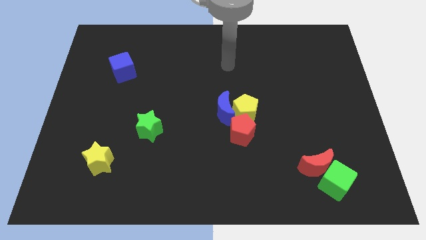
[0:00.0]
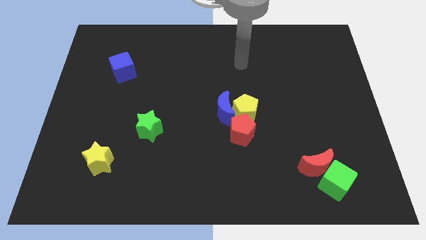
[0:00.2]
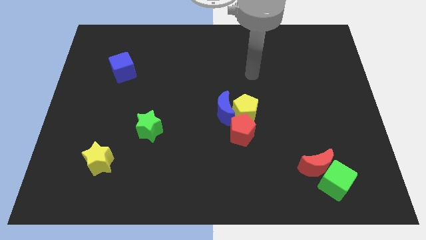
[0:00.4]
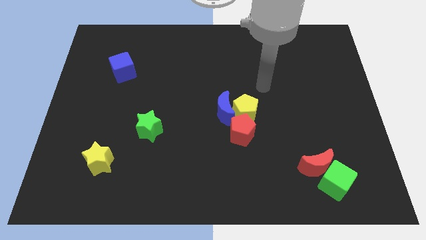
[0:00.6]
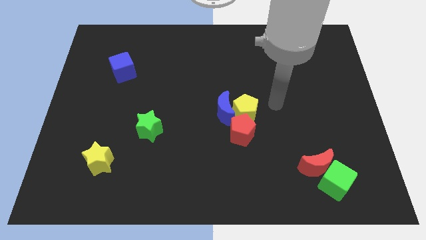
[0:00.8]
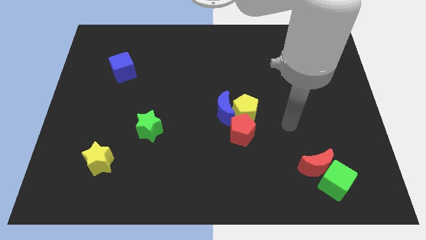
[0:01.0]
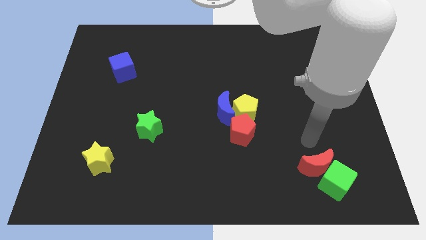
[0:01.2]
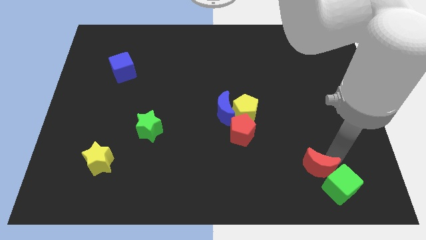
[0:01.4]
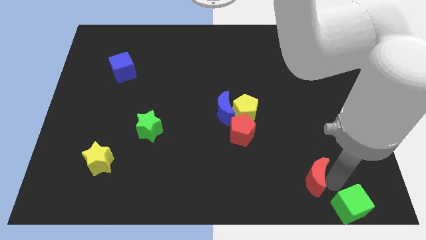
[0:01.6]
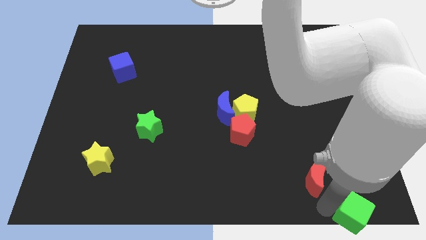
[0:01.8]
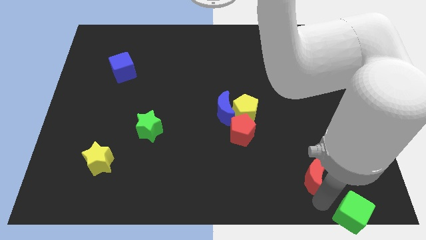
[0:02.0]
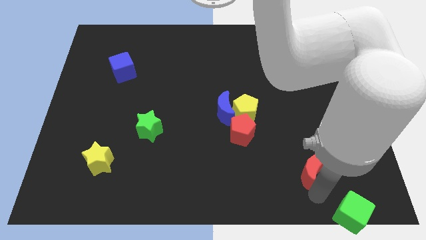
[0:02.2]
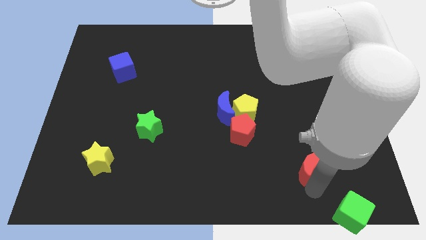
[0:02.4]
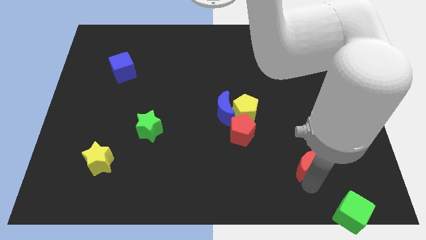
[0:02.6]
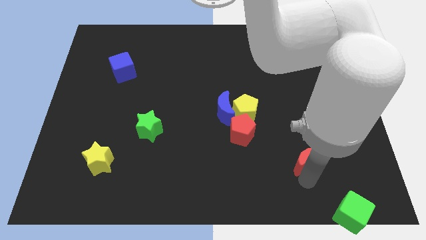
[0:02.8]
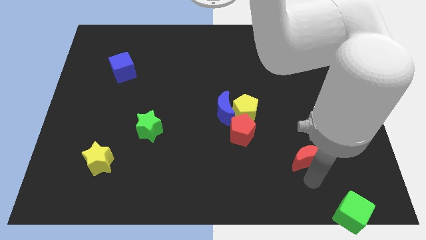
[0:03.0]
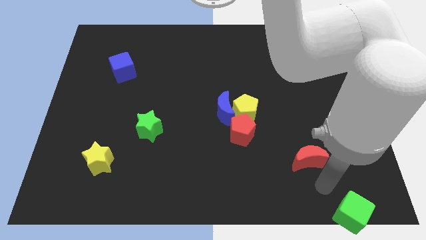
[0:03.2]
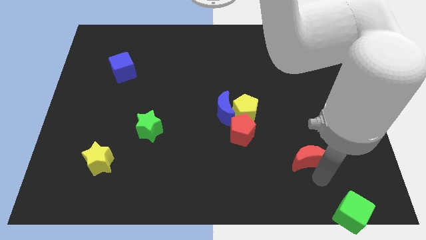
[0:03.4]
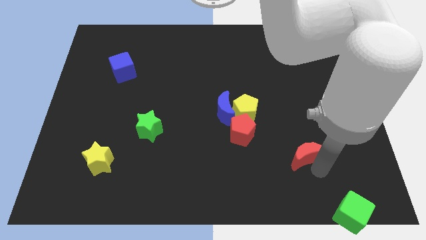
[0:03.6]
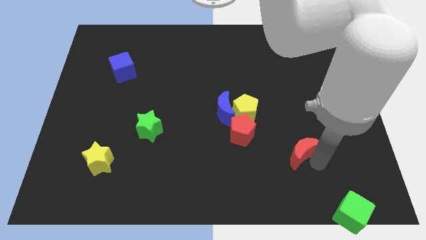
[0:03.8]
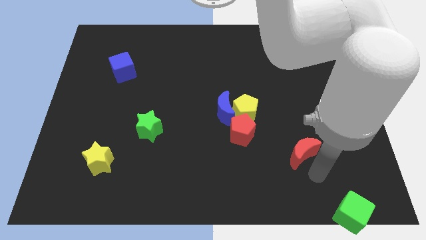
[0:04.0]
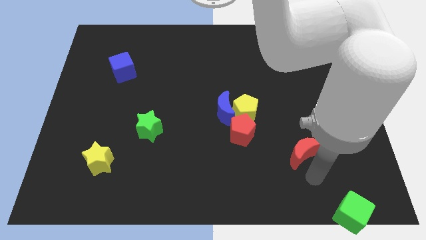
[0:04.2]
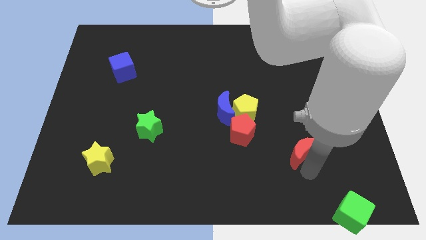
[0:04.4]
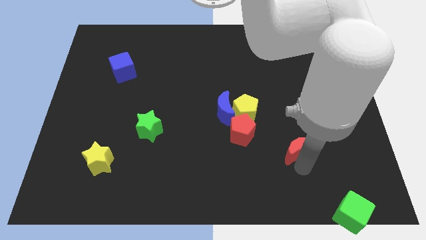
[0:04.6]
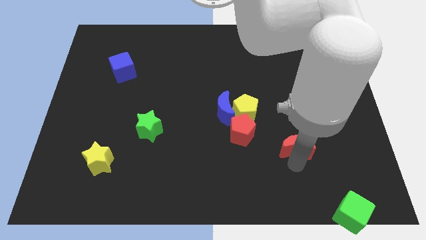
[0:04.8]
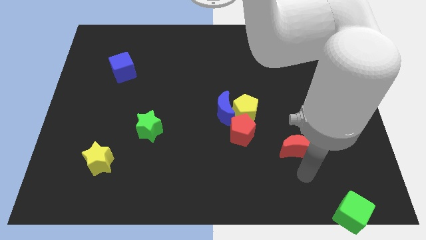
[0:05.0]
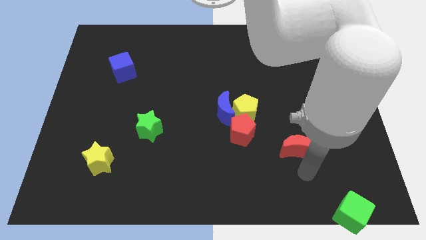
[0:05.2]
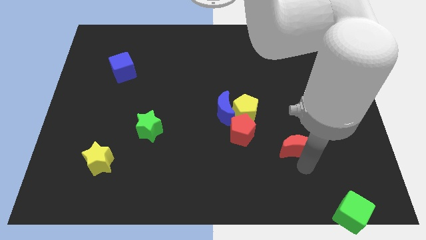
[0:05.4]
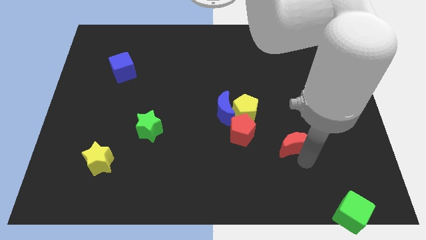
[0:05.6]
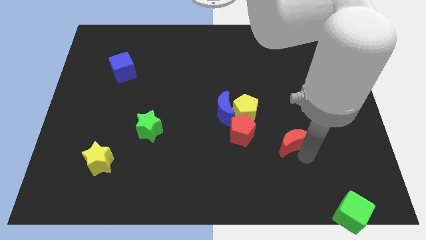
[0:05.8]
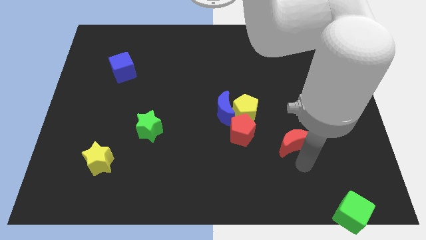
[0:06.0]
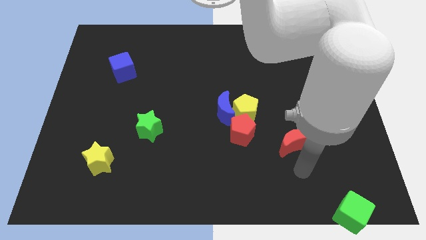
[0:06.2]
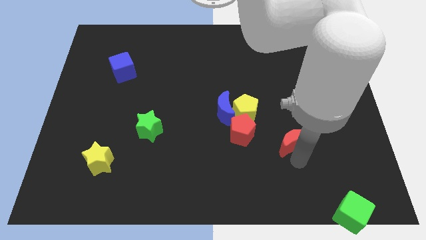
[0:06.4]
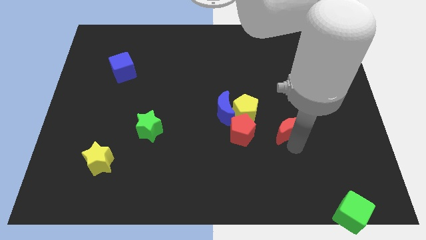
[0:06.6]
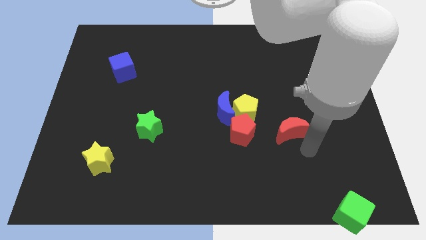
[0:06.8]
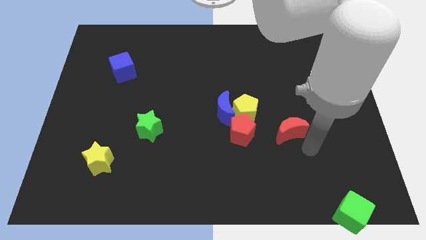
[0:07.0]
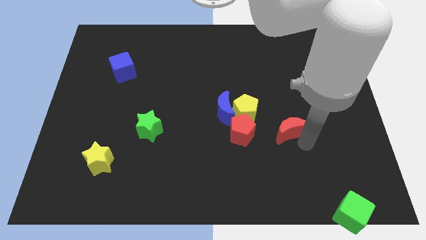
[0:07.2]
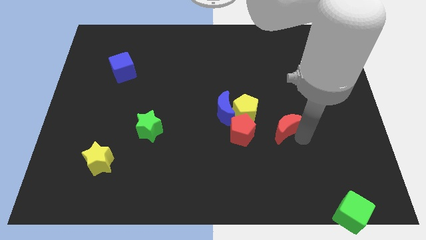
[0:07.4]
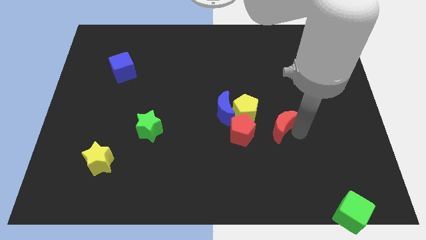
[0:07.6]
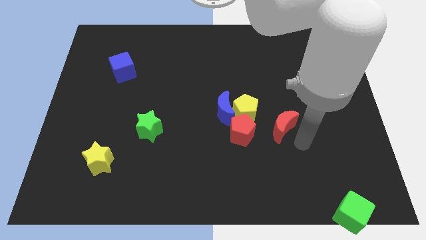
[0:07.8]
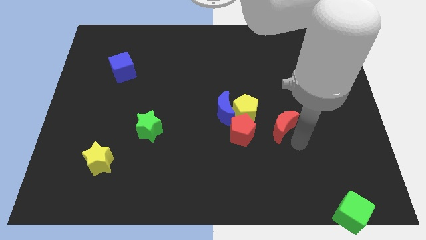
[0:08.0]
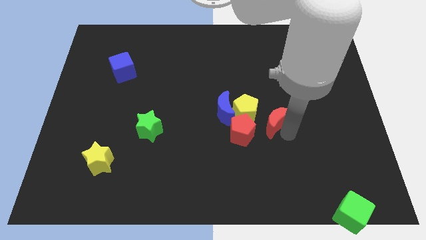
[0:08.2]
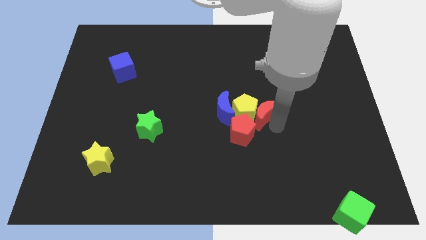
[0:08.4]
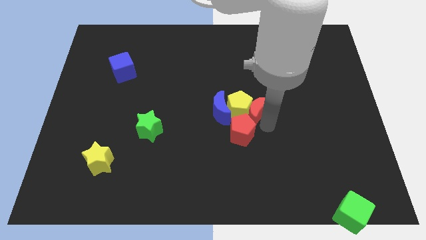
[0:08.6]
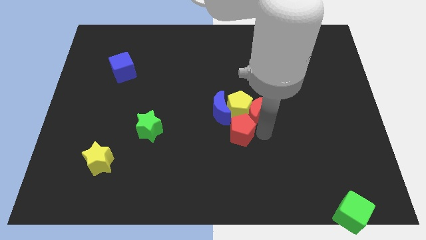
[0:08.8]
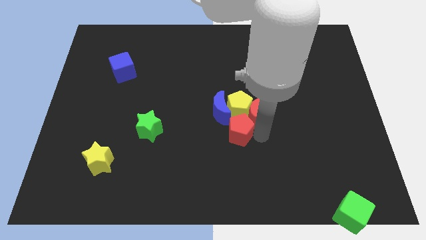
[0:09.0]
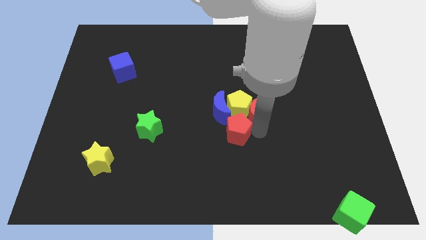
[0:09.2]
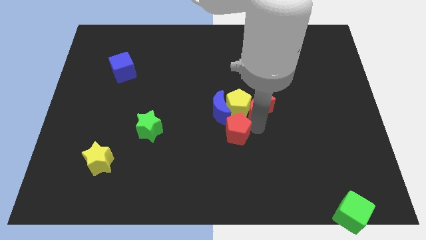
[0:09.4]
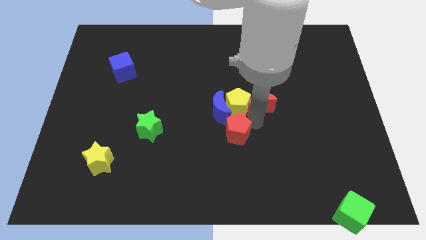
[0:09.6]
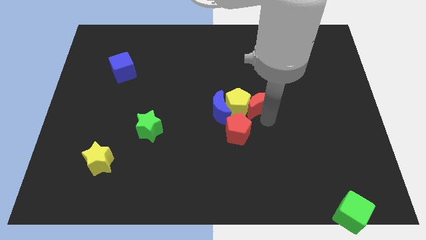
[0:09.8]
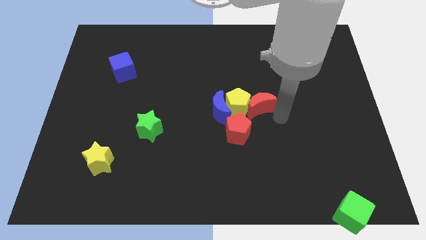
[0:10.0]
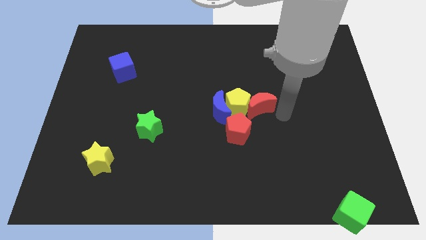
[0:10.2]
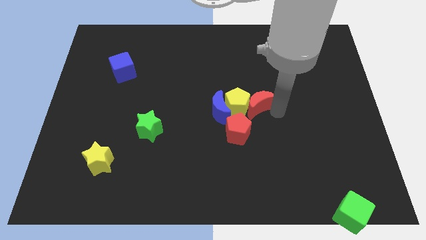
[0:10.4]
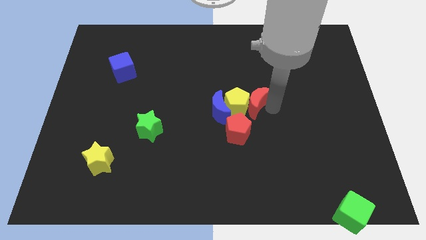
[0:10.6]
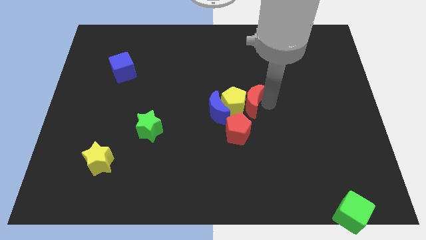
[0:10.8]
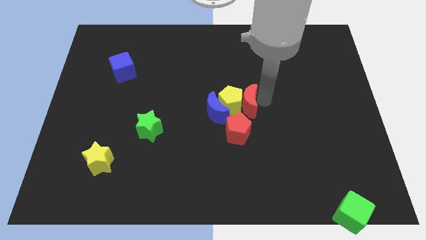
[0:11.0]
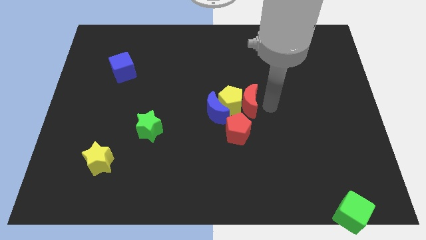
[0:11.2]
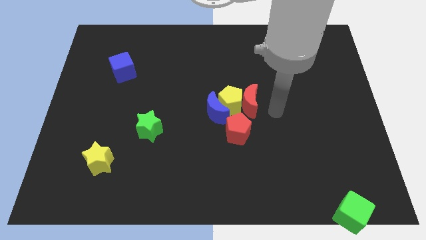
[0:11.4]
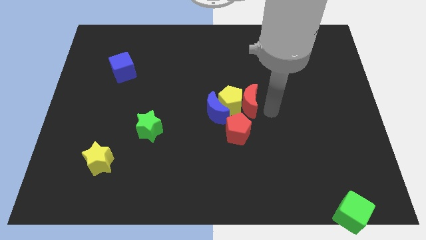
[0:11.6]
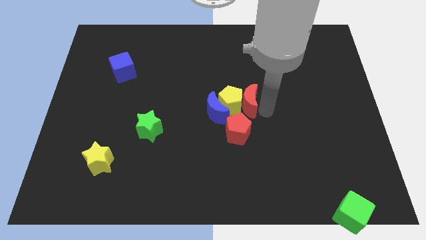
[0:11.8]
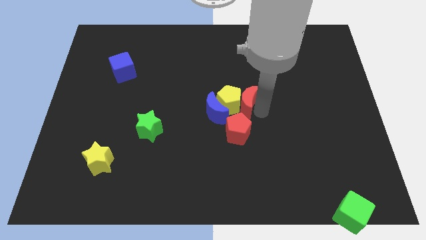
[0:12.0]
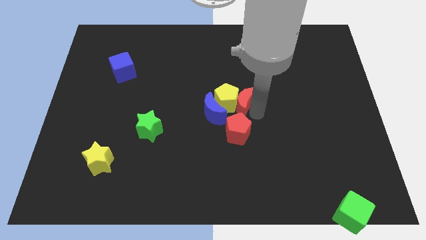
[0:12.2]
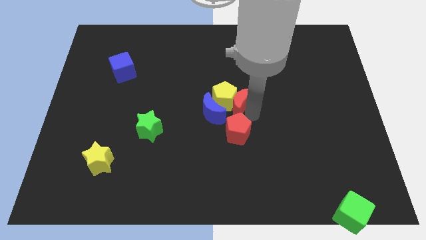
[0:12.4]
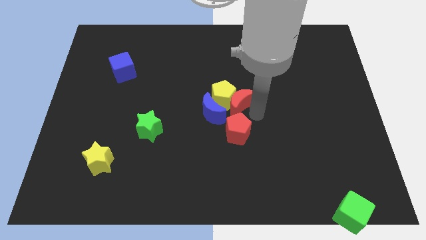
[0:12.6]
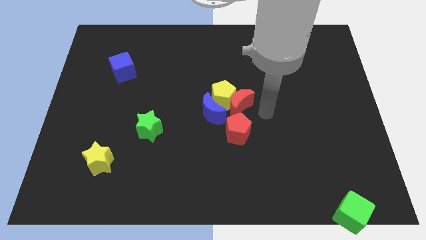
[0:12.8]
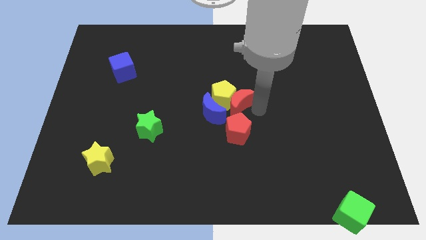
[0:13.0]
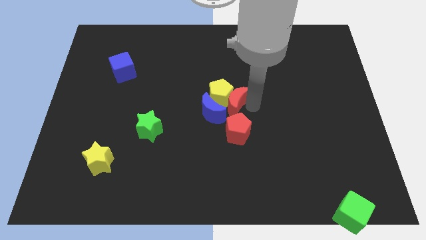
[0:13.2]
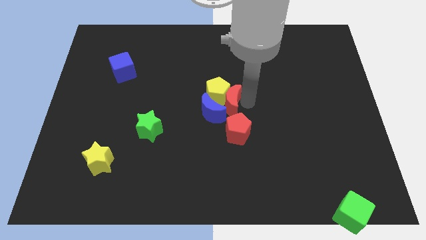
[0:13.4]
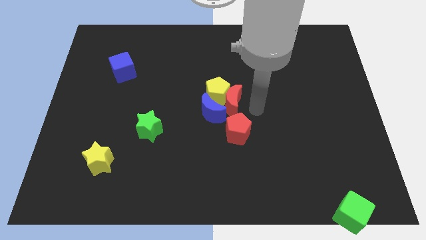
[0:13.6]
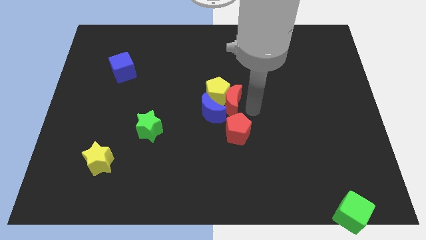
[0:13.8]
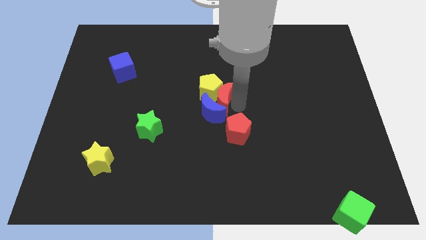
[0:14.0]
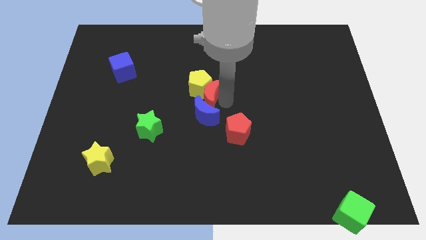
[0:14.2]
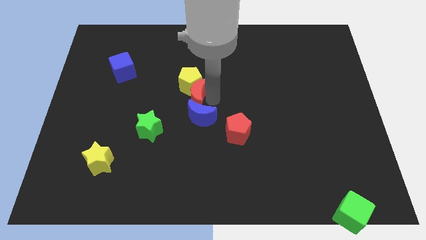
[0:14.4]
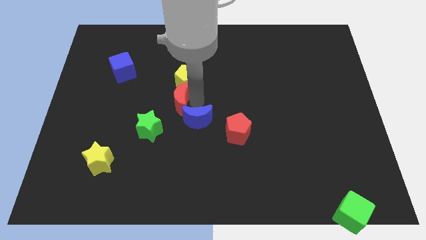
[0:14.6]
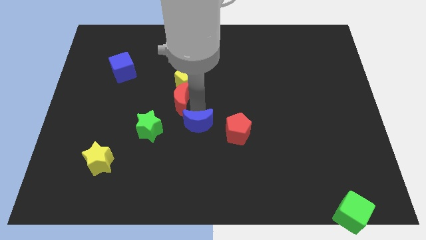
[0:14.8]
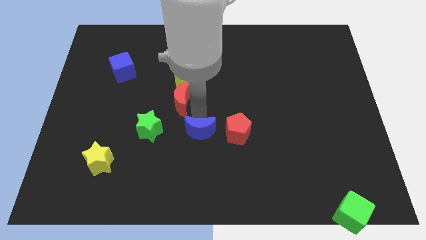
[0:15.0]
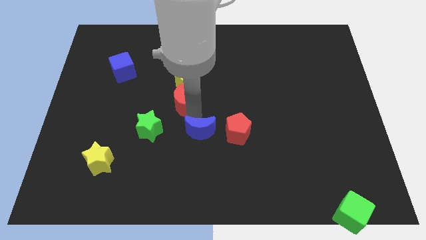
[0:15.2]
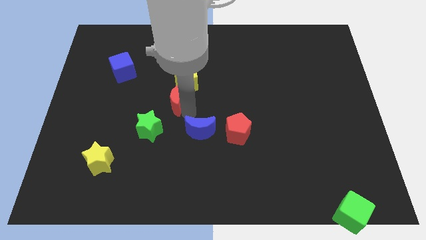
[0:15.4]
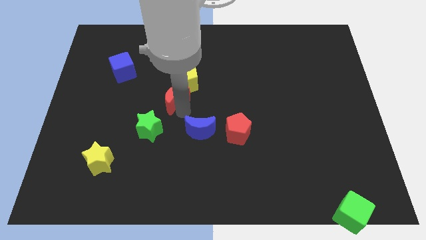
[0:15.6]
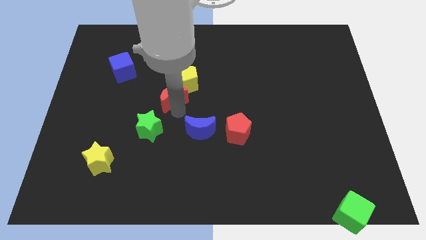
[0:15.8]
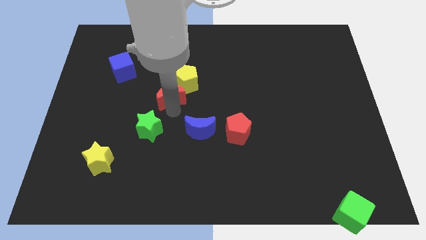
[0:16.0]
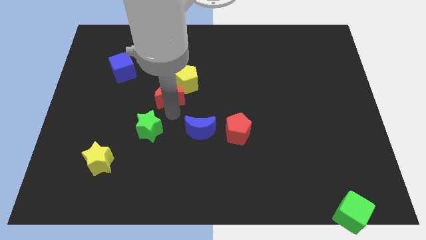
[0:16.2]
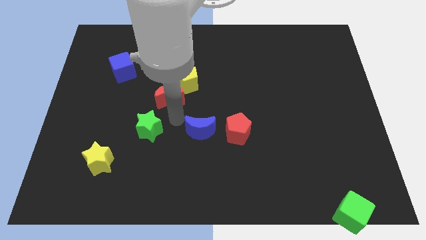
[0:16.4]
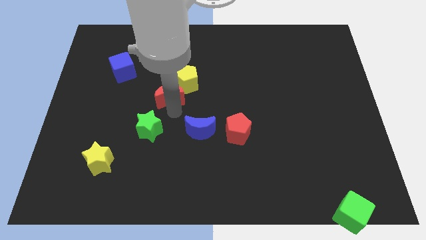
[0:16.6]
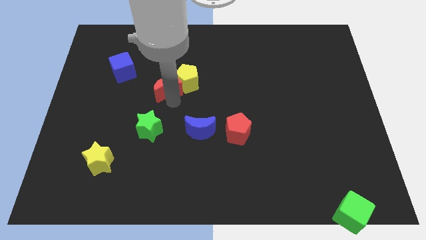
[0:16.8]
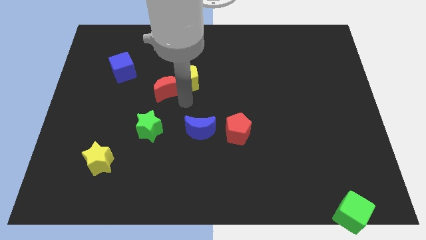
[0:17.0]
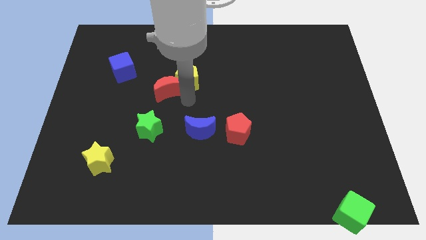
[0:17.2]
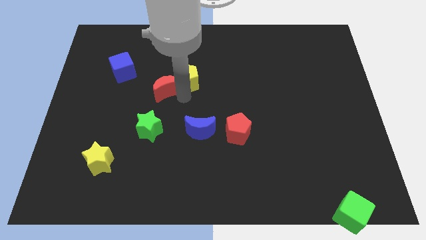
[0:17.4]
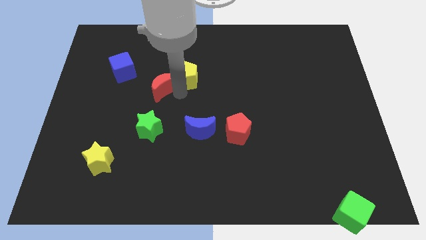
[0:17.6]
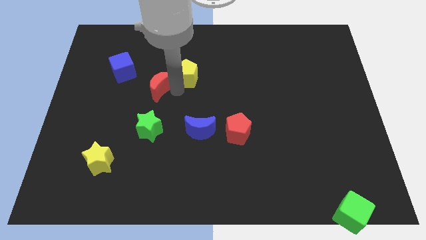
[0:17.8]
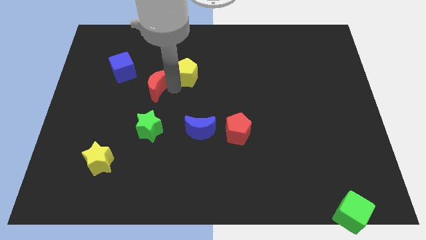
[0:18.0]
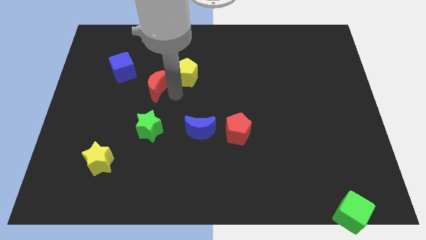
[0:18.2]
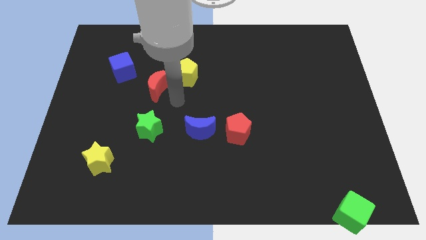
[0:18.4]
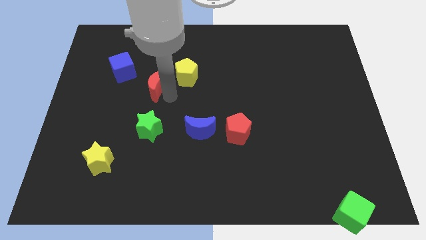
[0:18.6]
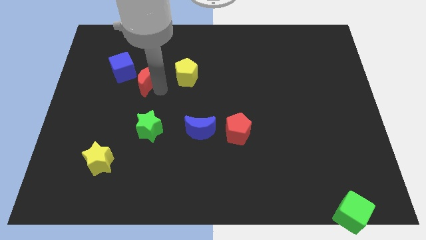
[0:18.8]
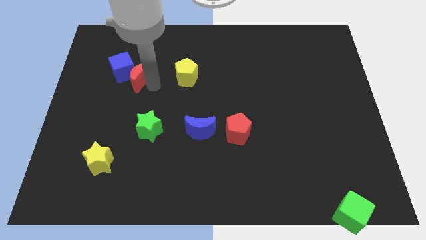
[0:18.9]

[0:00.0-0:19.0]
push the red moon close to the blue cube
